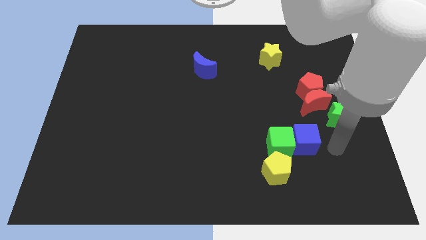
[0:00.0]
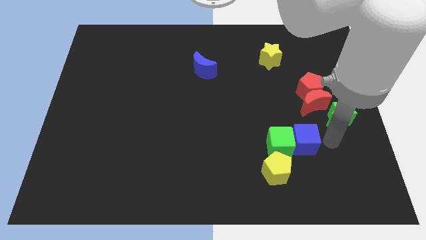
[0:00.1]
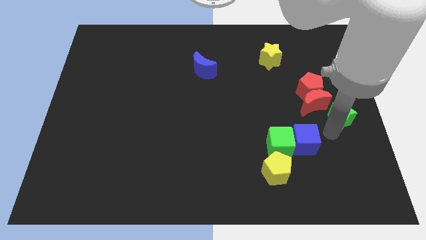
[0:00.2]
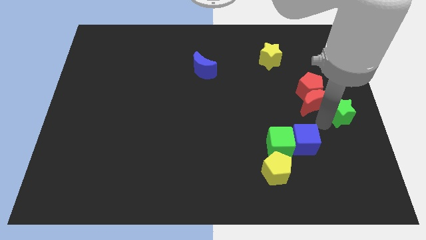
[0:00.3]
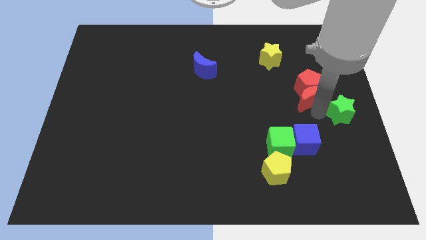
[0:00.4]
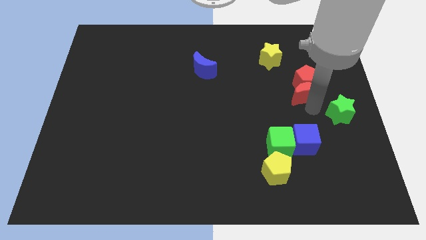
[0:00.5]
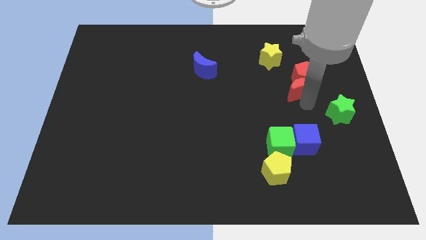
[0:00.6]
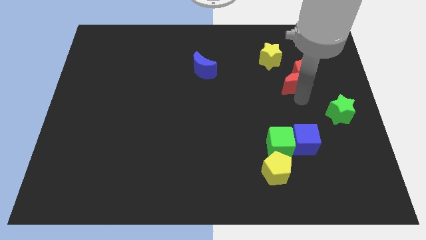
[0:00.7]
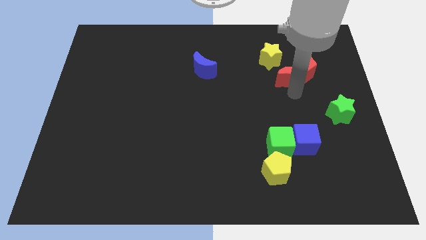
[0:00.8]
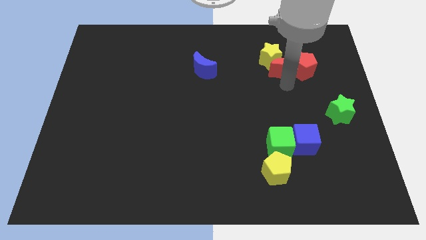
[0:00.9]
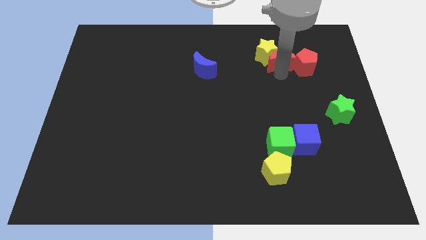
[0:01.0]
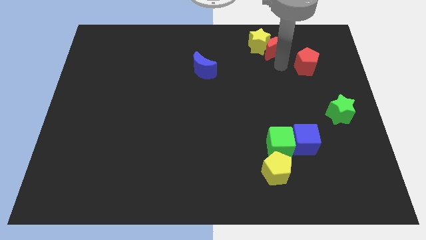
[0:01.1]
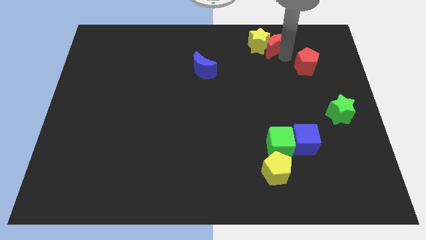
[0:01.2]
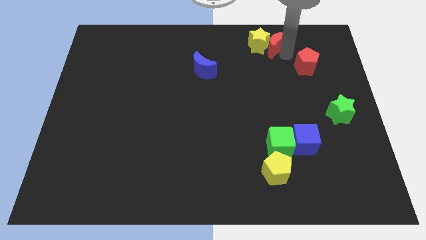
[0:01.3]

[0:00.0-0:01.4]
pull the red pentagon apart from the red moon

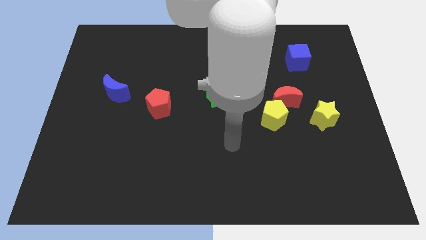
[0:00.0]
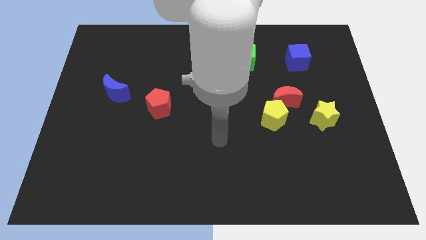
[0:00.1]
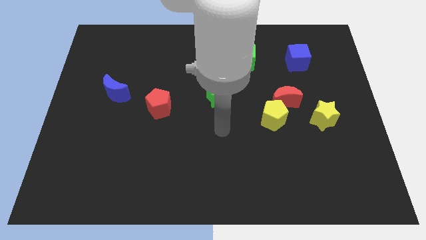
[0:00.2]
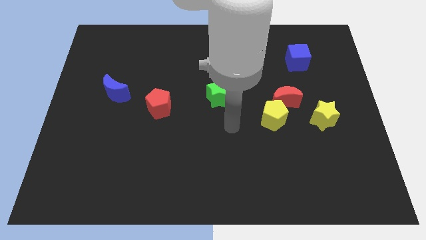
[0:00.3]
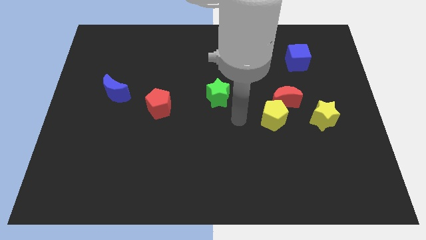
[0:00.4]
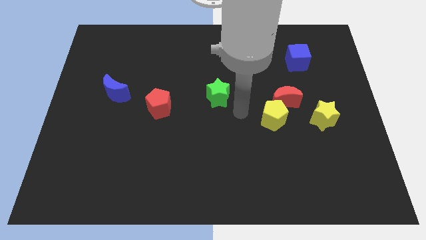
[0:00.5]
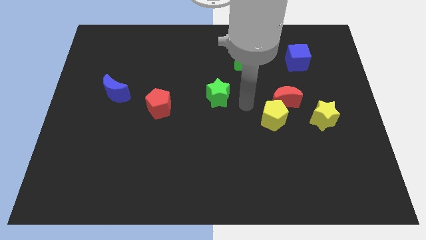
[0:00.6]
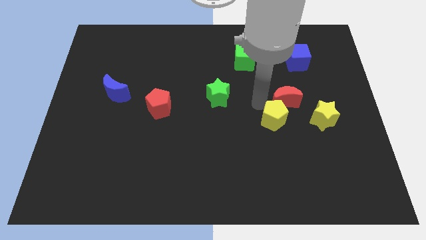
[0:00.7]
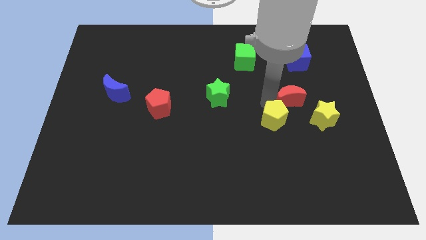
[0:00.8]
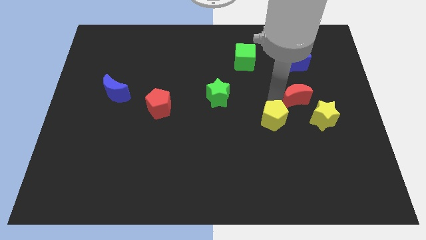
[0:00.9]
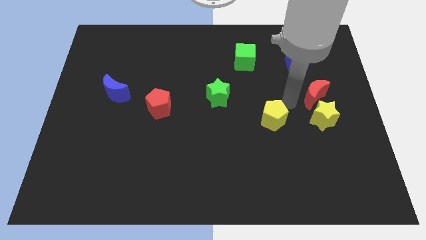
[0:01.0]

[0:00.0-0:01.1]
separate the yellow pentagon from the red moon

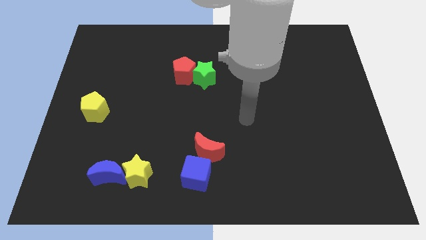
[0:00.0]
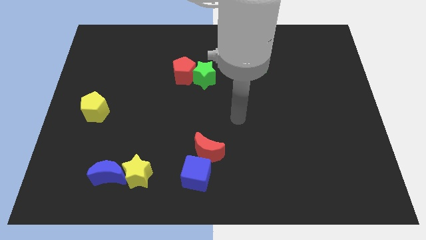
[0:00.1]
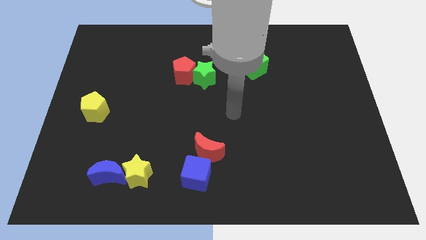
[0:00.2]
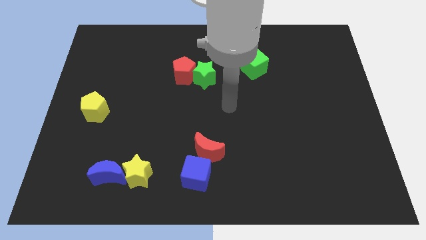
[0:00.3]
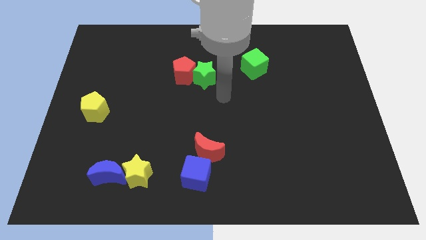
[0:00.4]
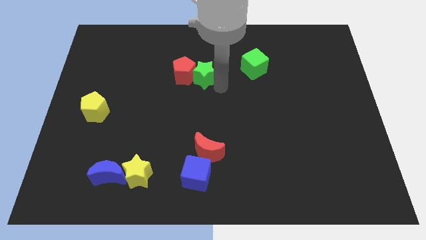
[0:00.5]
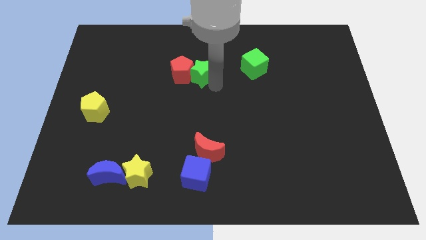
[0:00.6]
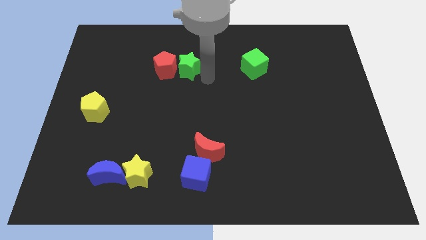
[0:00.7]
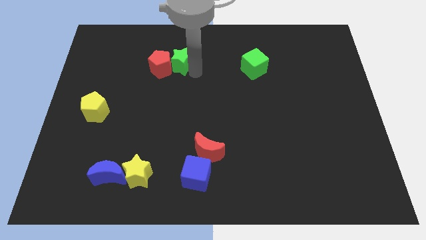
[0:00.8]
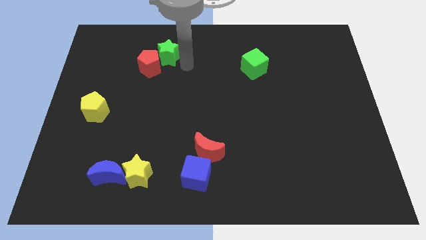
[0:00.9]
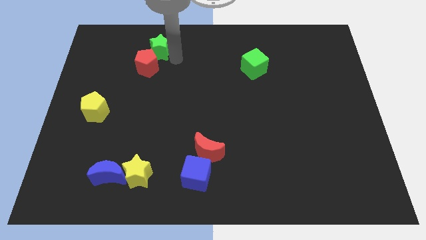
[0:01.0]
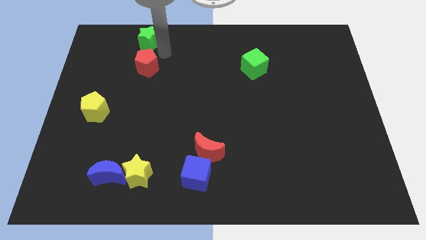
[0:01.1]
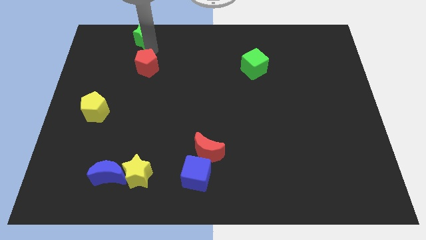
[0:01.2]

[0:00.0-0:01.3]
move the red pentagon away from the green star

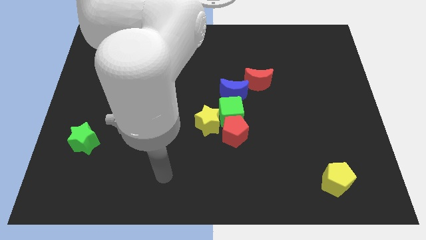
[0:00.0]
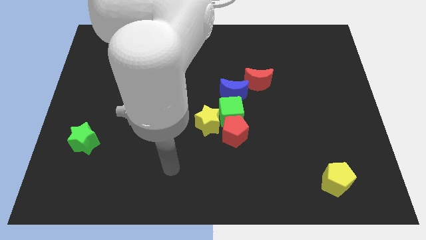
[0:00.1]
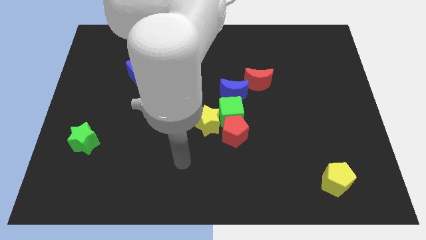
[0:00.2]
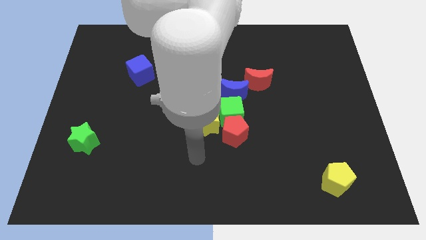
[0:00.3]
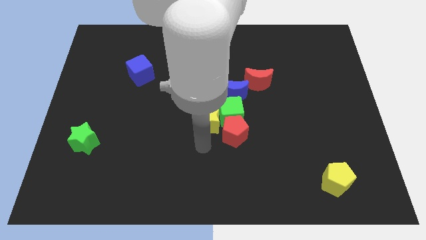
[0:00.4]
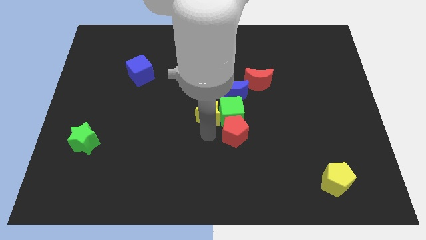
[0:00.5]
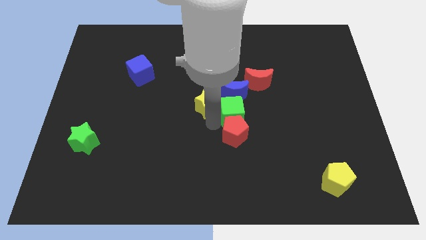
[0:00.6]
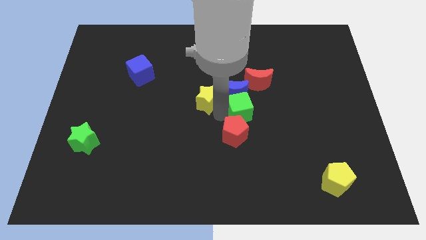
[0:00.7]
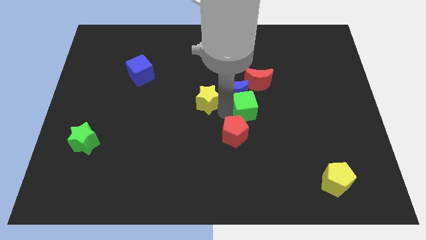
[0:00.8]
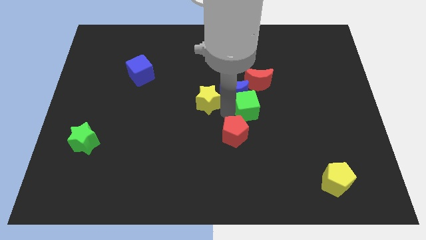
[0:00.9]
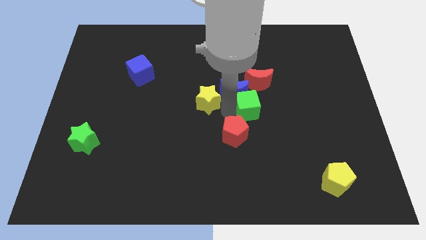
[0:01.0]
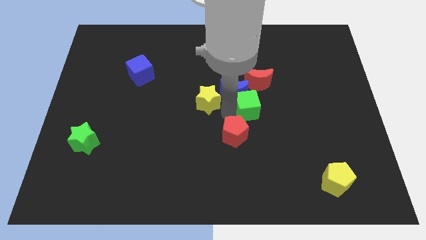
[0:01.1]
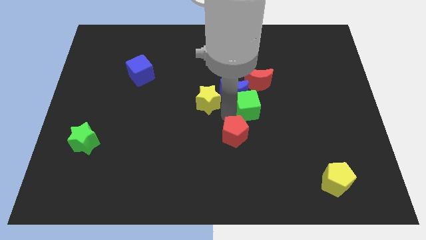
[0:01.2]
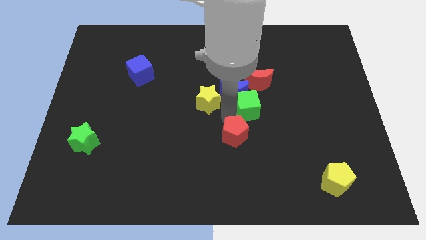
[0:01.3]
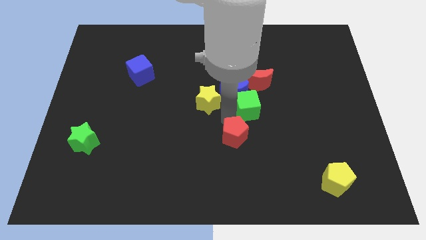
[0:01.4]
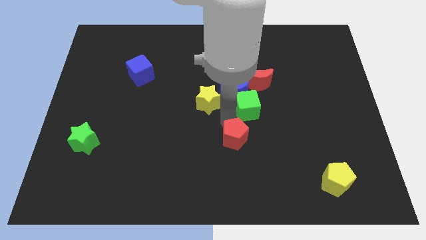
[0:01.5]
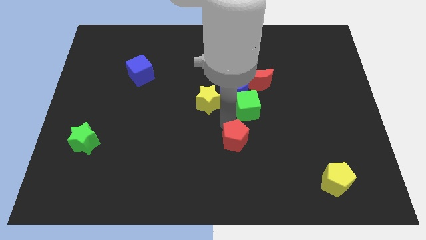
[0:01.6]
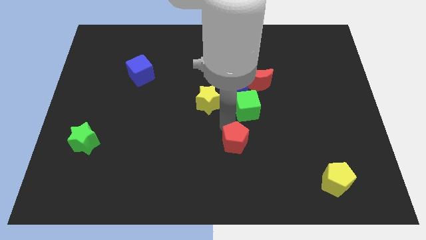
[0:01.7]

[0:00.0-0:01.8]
separate the red pentagon from the green cube and yellow star

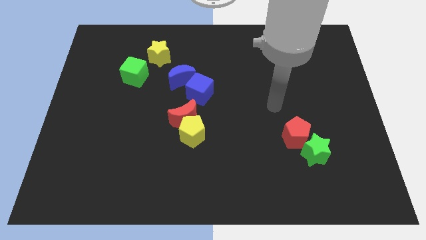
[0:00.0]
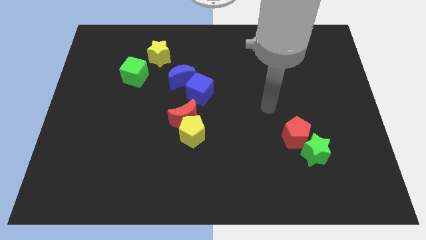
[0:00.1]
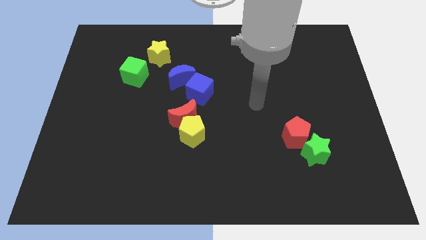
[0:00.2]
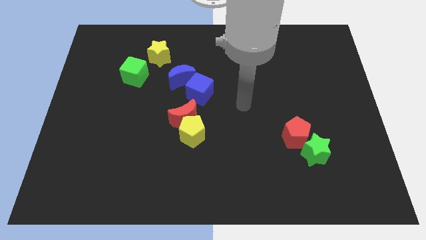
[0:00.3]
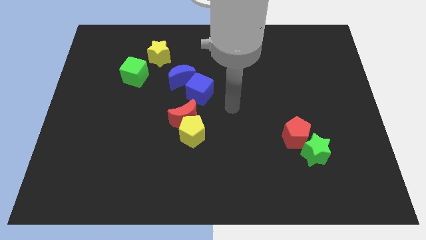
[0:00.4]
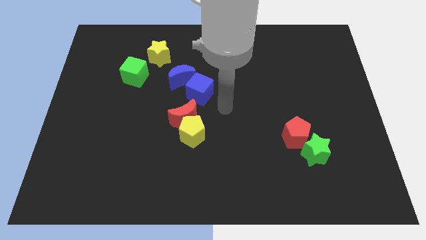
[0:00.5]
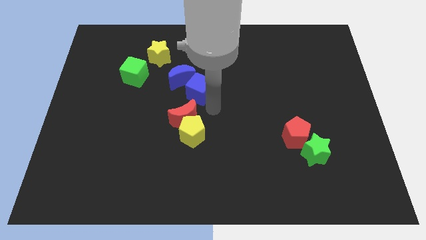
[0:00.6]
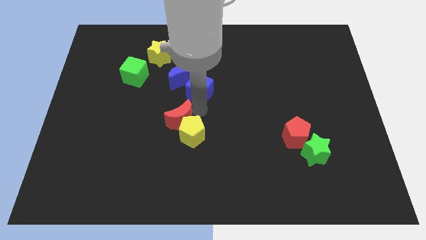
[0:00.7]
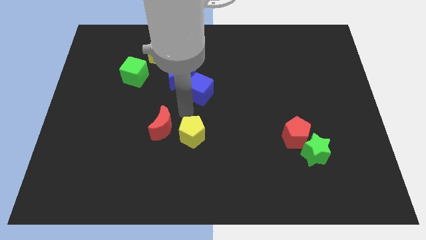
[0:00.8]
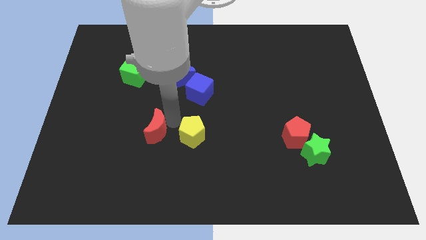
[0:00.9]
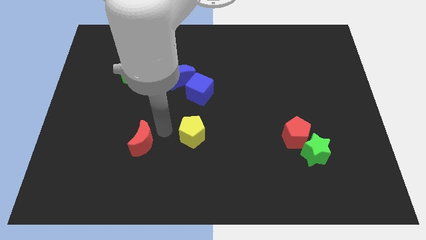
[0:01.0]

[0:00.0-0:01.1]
move the yellow pentagon away from the red moon

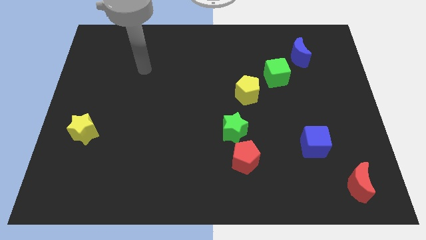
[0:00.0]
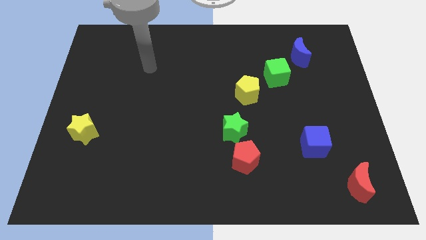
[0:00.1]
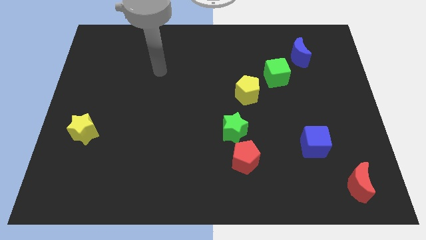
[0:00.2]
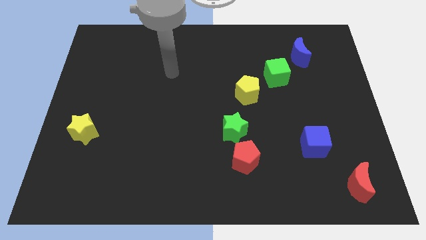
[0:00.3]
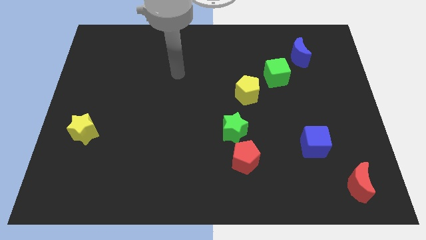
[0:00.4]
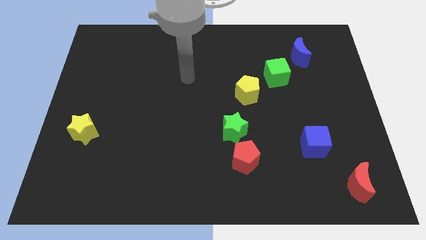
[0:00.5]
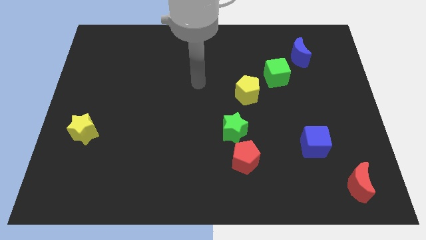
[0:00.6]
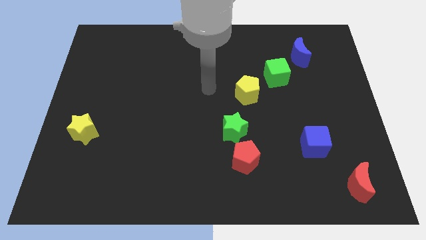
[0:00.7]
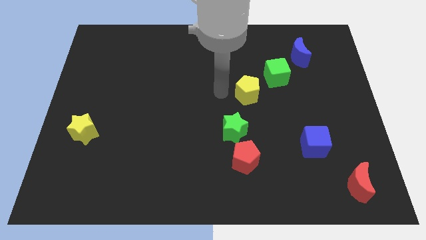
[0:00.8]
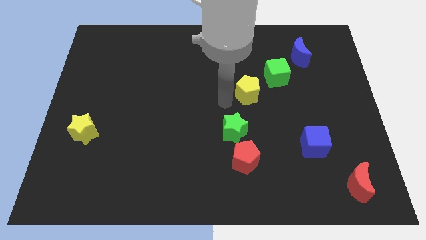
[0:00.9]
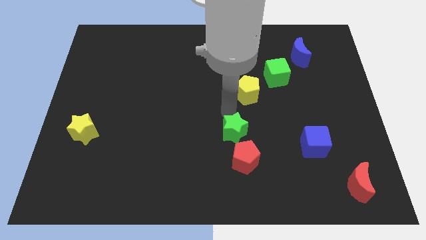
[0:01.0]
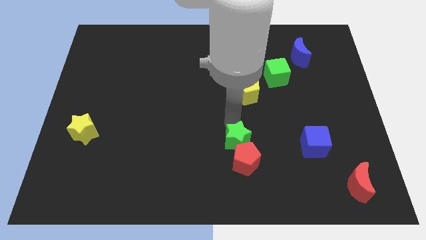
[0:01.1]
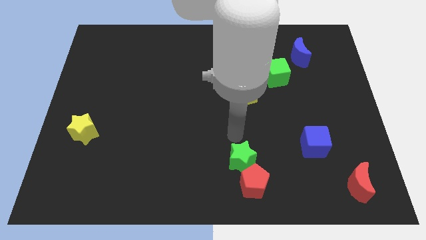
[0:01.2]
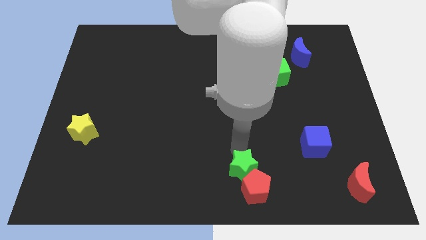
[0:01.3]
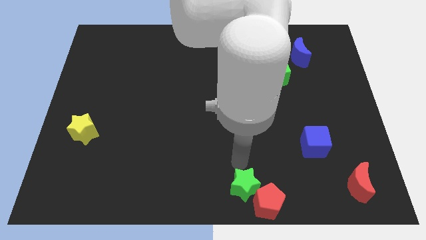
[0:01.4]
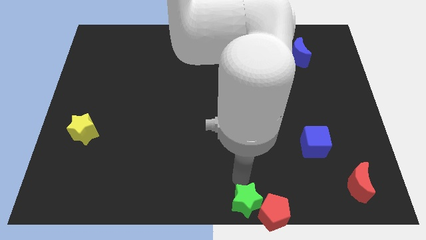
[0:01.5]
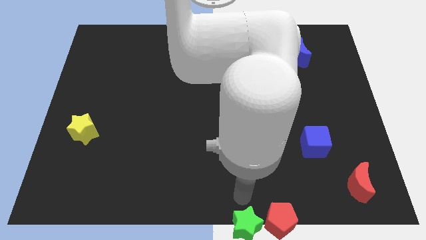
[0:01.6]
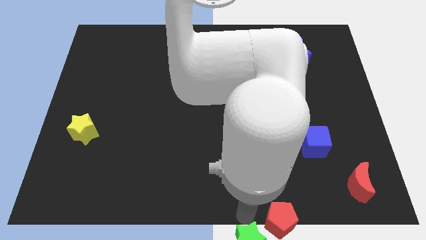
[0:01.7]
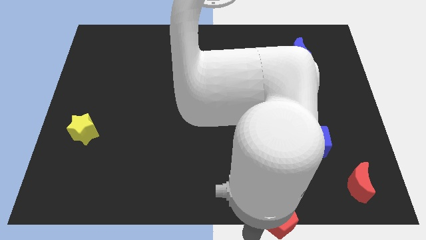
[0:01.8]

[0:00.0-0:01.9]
pull the red pentagon apart from the green star

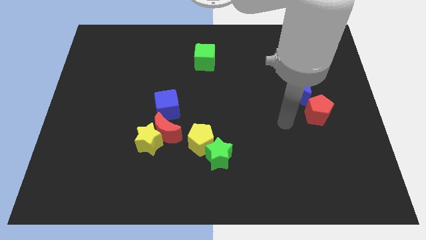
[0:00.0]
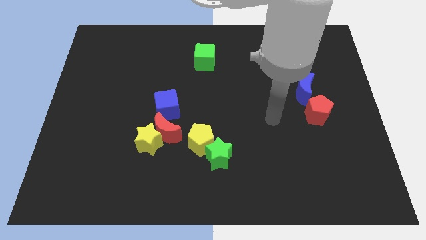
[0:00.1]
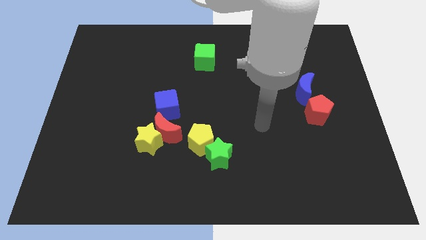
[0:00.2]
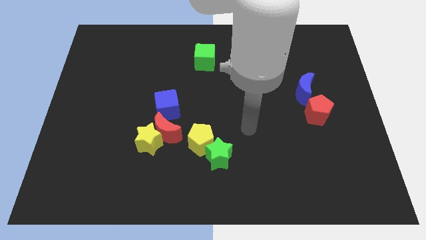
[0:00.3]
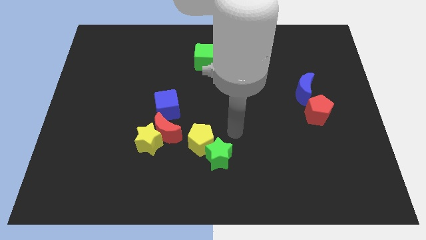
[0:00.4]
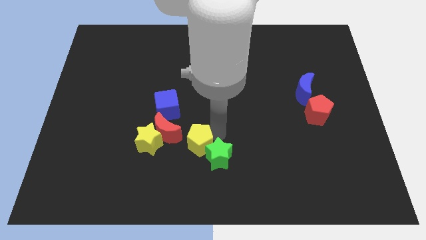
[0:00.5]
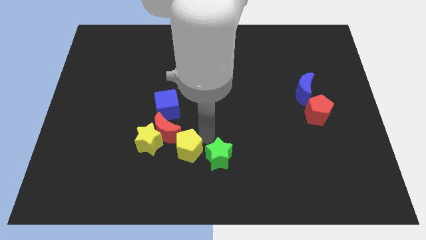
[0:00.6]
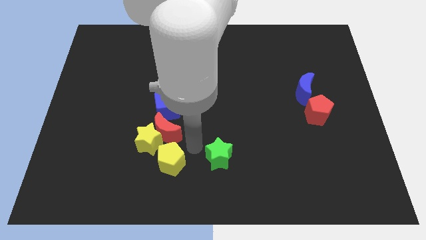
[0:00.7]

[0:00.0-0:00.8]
separate the green star from the yellow pentagon
